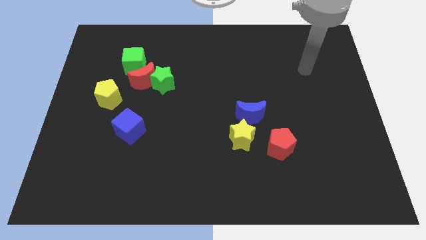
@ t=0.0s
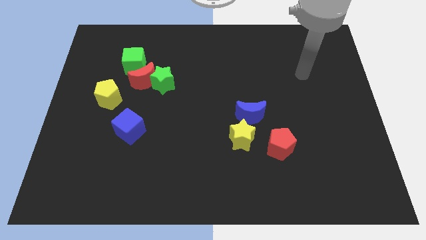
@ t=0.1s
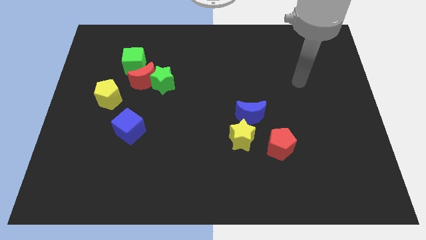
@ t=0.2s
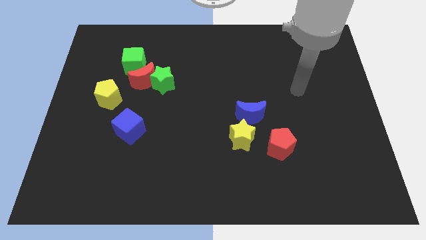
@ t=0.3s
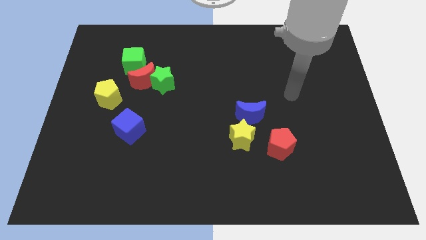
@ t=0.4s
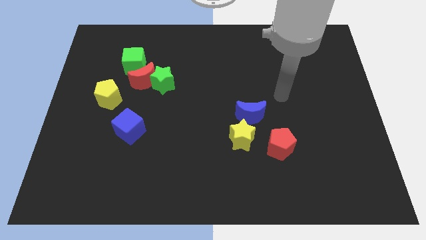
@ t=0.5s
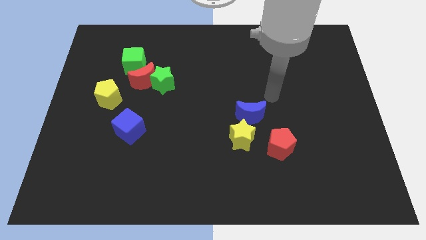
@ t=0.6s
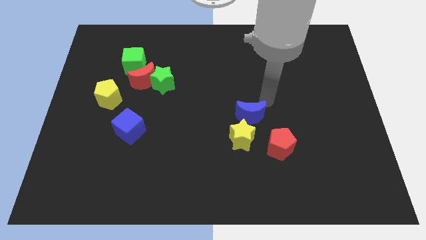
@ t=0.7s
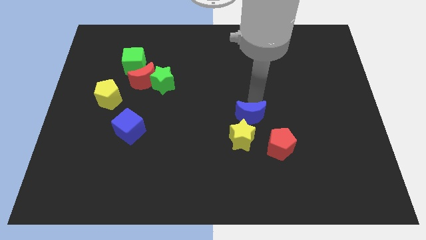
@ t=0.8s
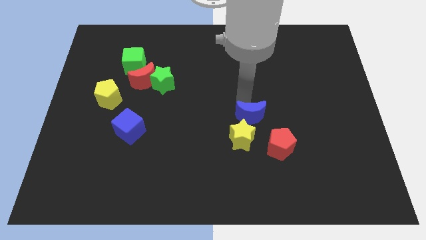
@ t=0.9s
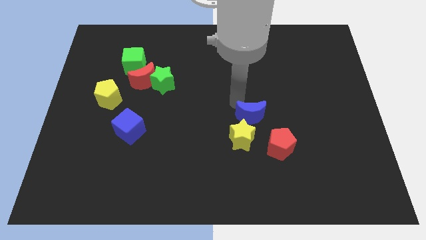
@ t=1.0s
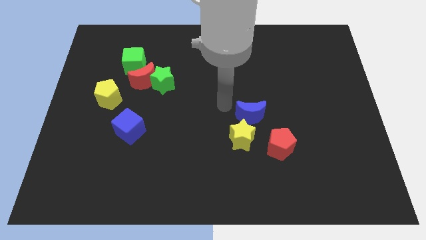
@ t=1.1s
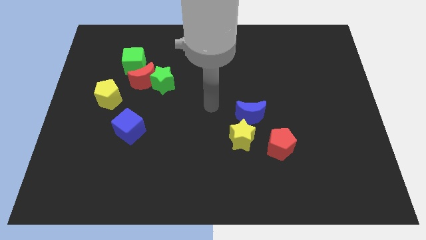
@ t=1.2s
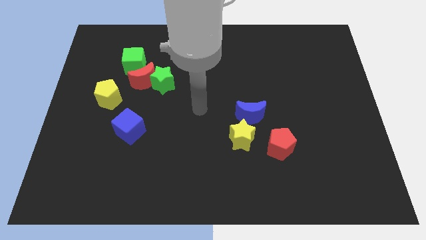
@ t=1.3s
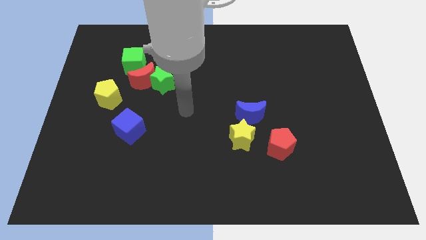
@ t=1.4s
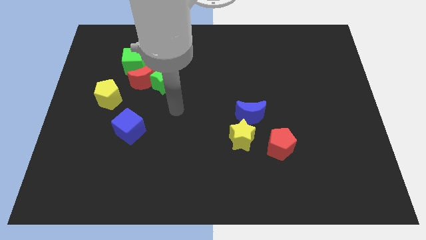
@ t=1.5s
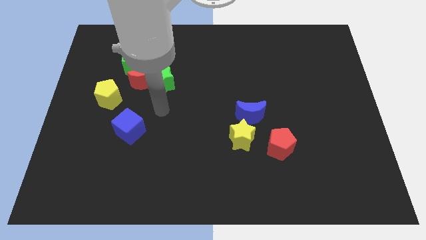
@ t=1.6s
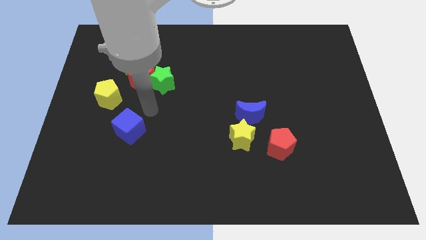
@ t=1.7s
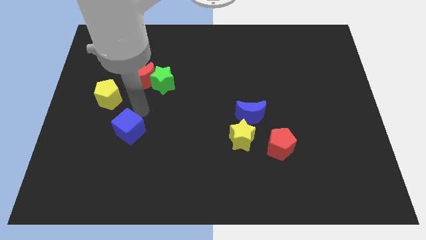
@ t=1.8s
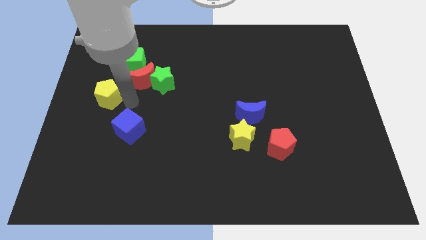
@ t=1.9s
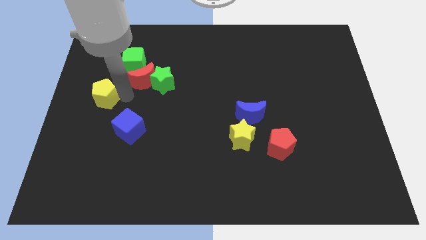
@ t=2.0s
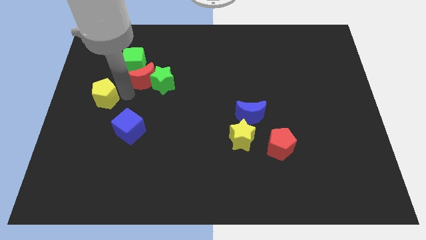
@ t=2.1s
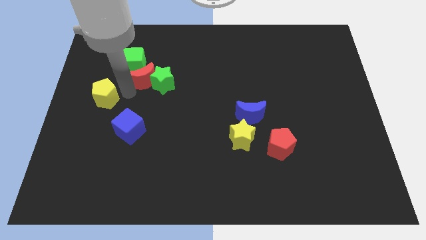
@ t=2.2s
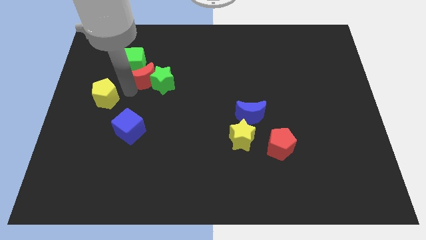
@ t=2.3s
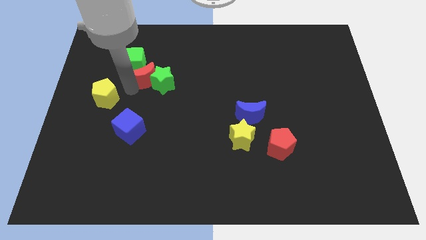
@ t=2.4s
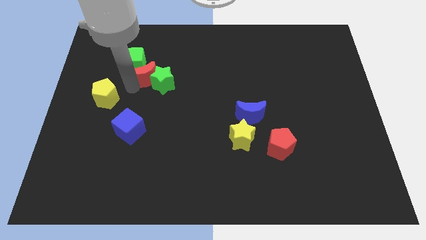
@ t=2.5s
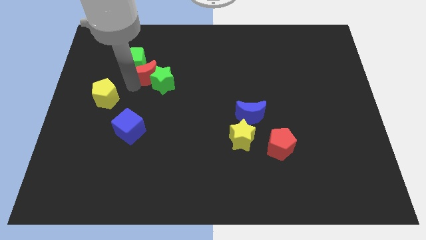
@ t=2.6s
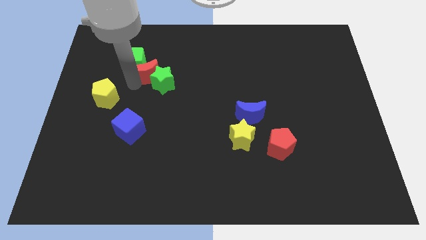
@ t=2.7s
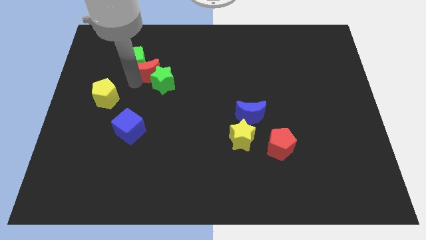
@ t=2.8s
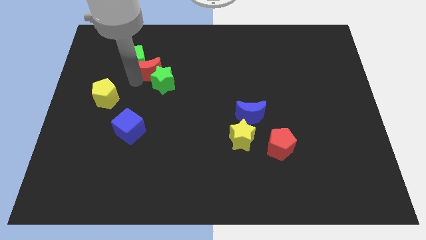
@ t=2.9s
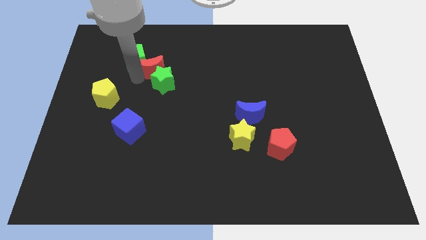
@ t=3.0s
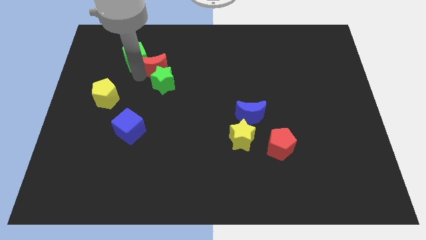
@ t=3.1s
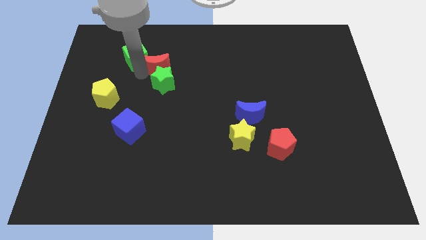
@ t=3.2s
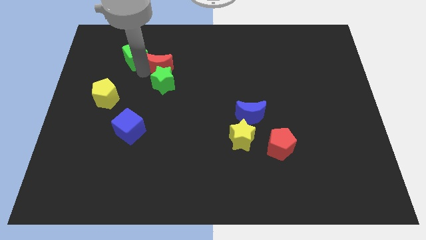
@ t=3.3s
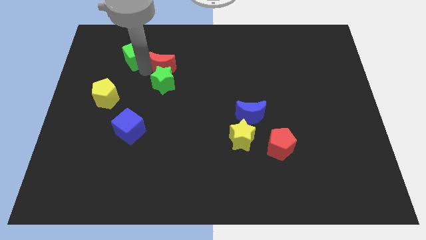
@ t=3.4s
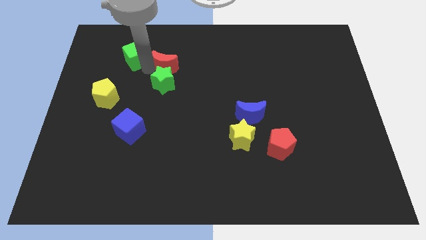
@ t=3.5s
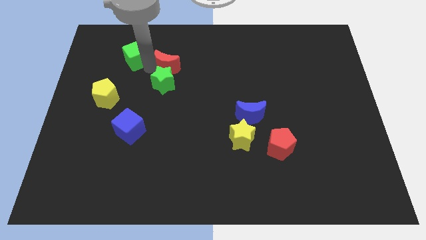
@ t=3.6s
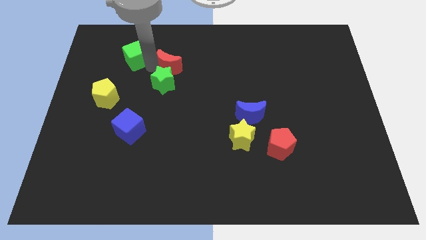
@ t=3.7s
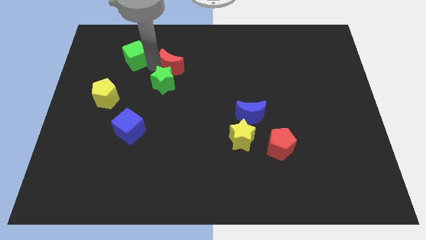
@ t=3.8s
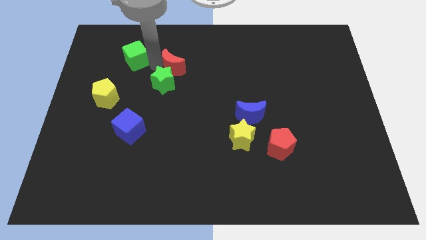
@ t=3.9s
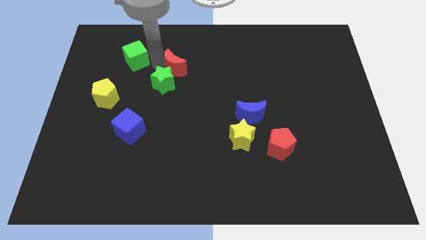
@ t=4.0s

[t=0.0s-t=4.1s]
pull the red moon apart from the group

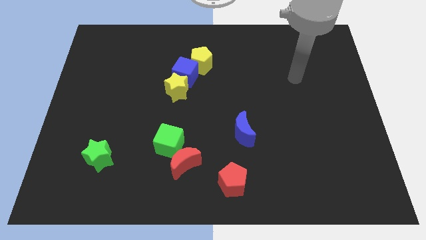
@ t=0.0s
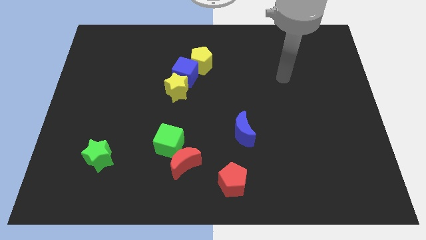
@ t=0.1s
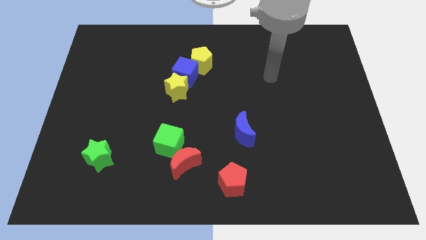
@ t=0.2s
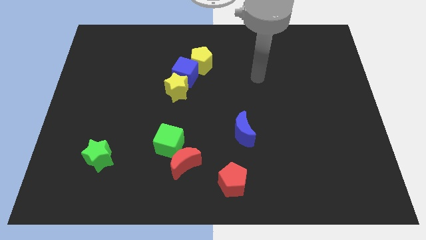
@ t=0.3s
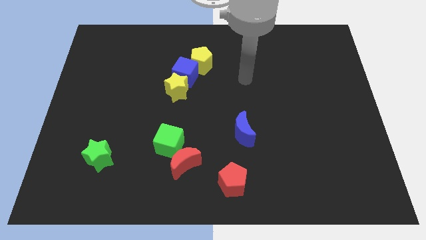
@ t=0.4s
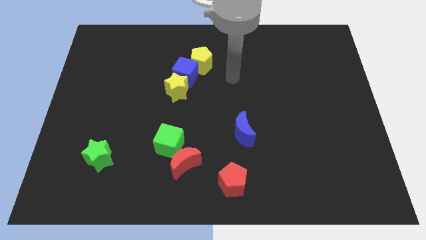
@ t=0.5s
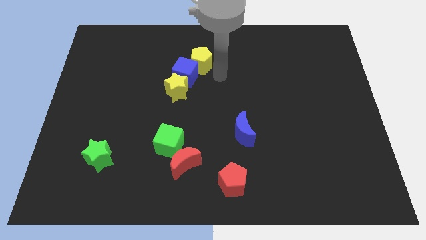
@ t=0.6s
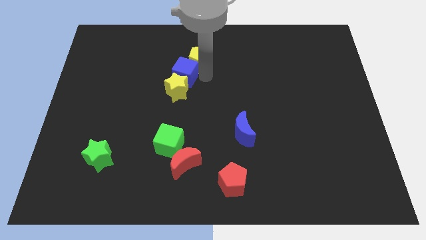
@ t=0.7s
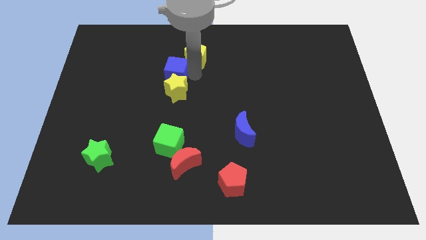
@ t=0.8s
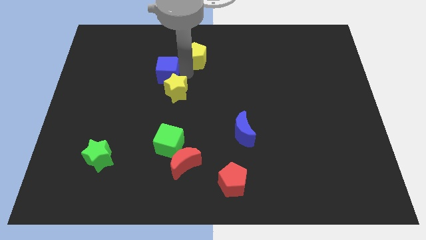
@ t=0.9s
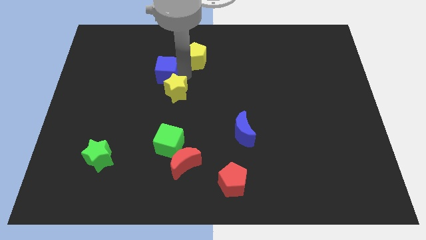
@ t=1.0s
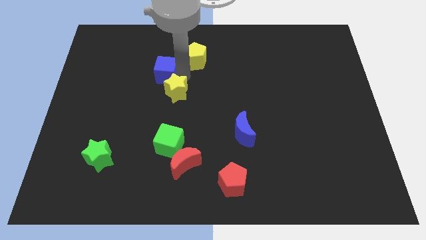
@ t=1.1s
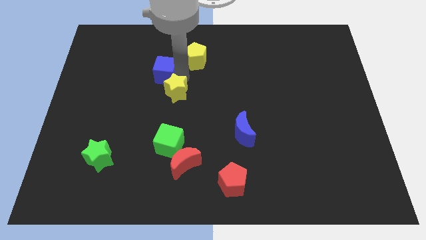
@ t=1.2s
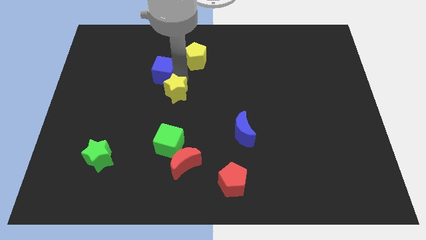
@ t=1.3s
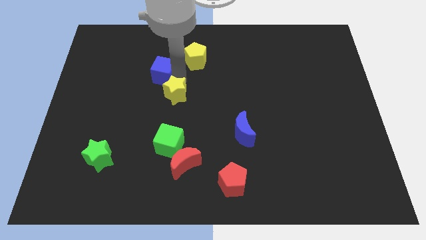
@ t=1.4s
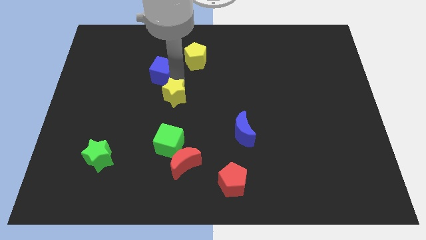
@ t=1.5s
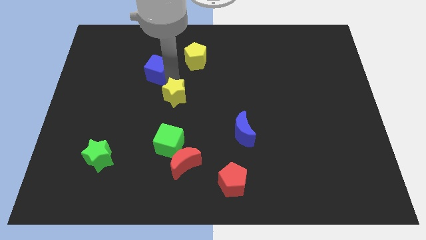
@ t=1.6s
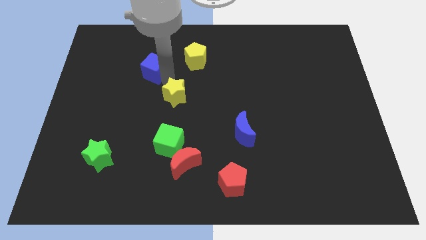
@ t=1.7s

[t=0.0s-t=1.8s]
move the yellow star away from the blue cube

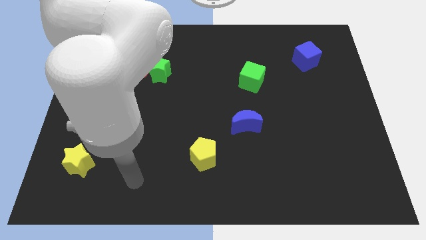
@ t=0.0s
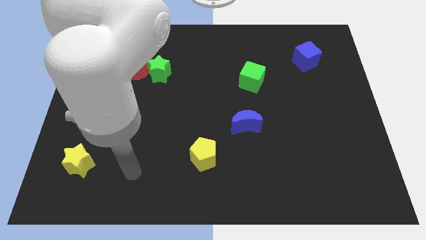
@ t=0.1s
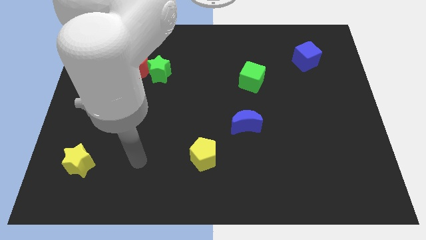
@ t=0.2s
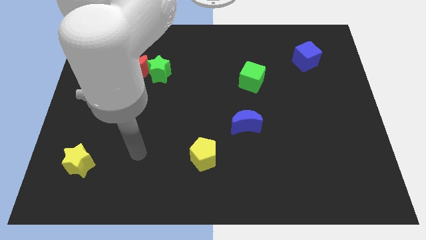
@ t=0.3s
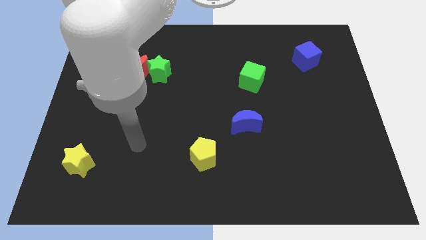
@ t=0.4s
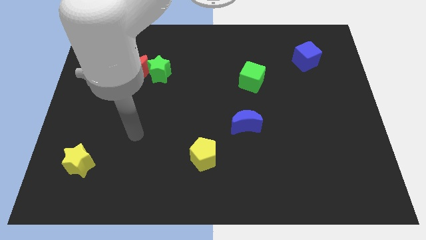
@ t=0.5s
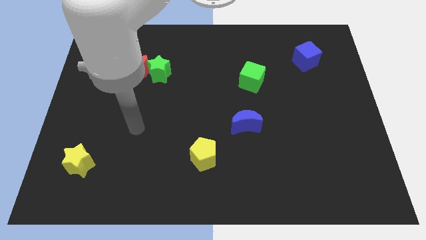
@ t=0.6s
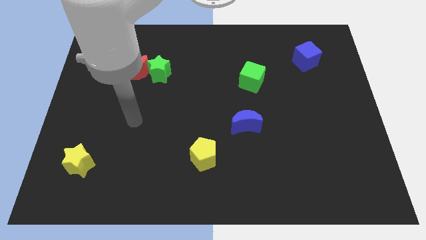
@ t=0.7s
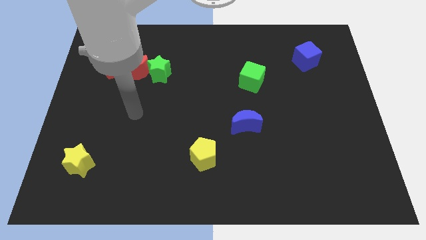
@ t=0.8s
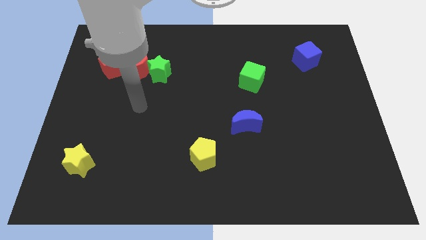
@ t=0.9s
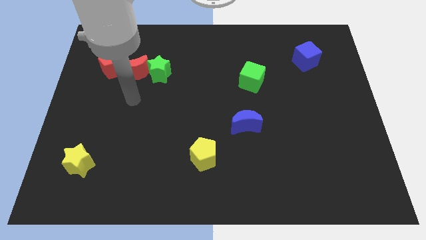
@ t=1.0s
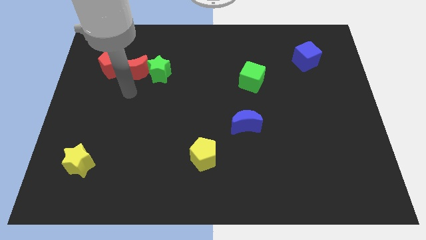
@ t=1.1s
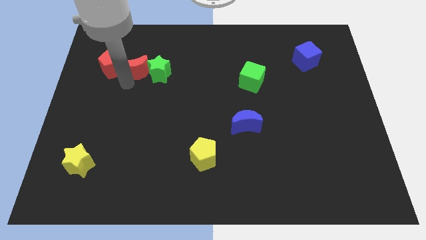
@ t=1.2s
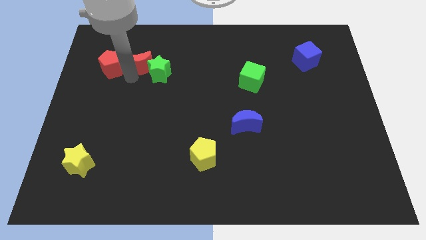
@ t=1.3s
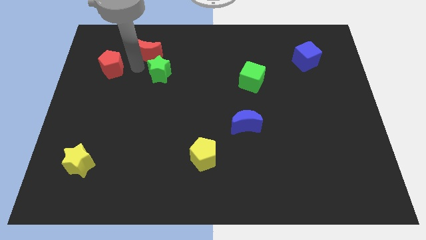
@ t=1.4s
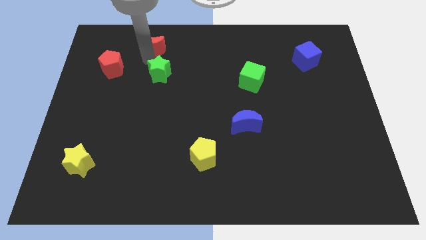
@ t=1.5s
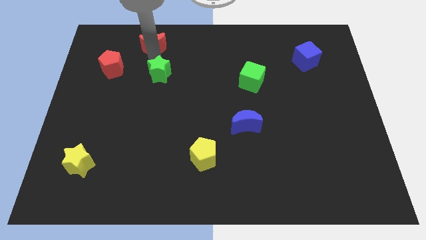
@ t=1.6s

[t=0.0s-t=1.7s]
move the green star away from the red moon

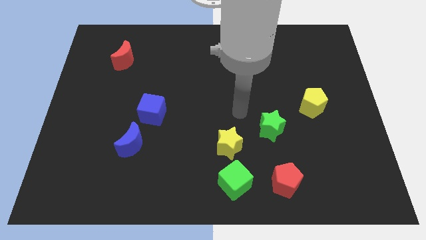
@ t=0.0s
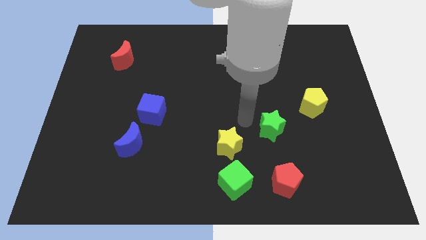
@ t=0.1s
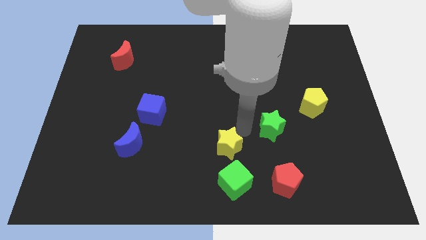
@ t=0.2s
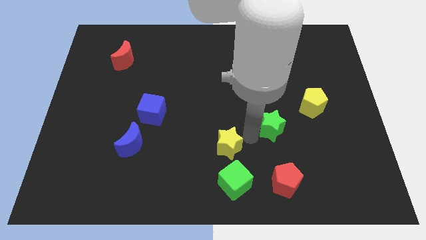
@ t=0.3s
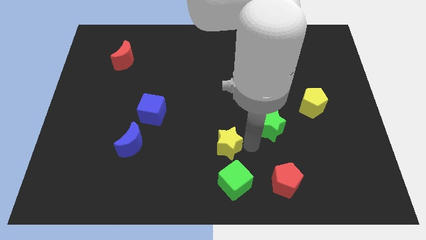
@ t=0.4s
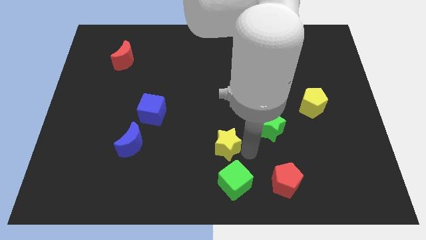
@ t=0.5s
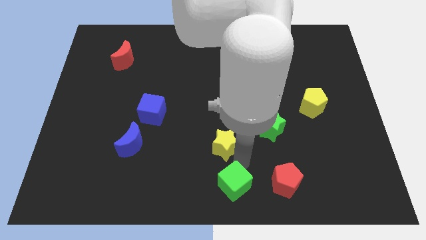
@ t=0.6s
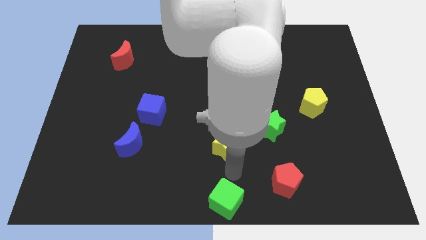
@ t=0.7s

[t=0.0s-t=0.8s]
move the yellow star away from the green cube

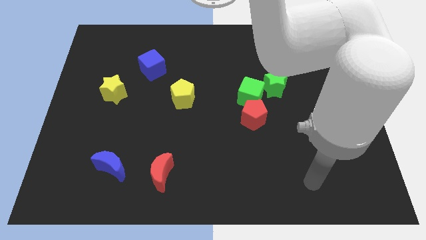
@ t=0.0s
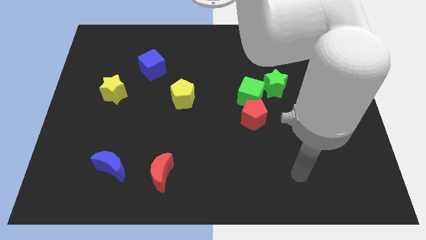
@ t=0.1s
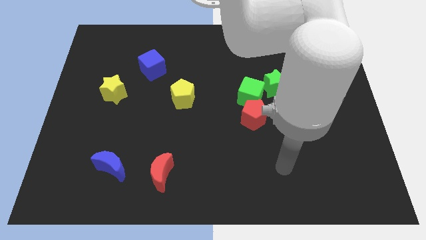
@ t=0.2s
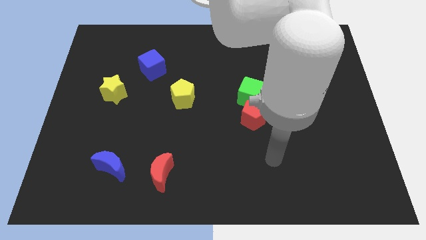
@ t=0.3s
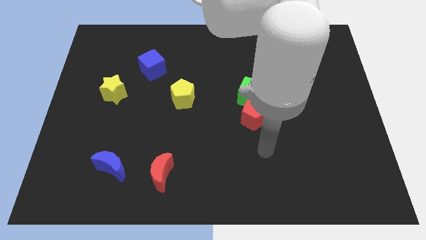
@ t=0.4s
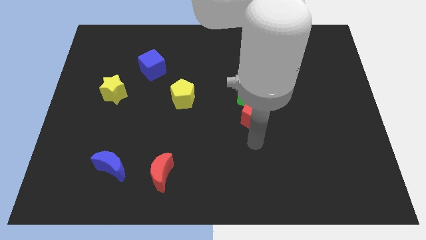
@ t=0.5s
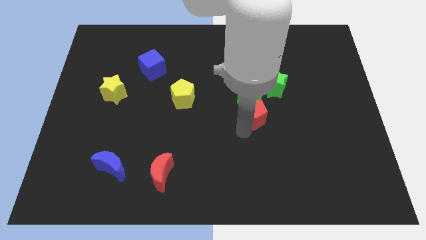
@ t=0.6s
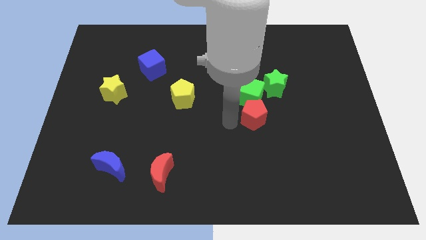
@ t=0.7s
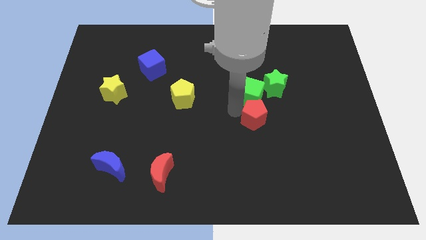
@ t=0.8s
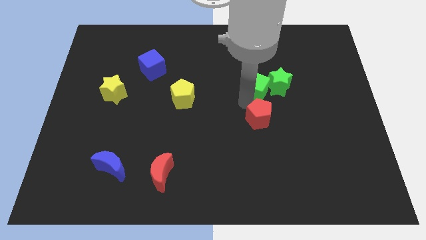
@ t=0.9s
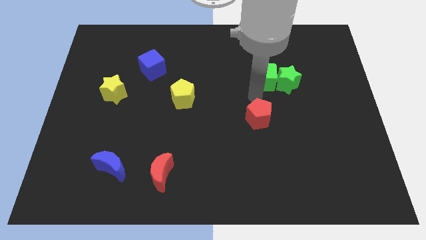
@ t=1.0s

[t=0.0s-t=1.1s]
pull the red pentagon apart from the green cube
